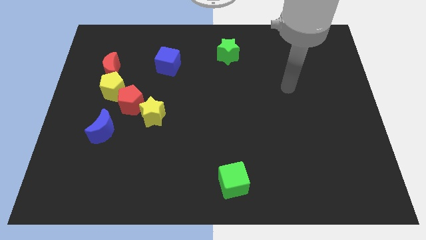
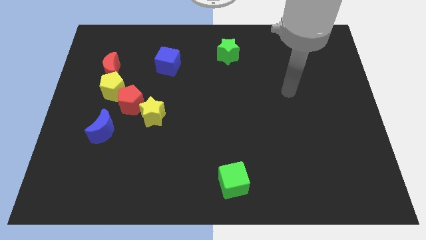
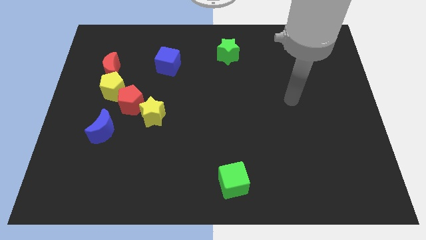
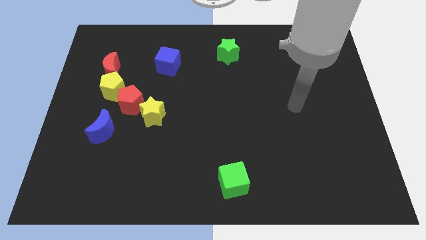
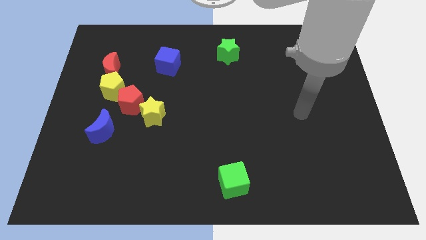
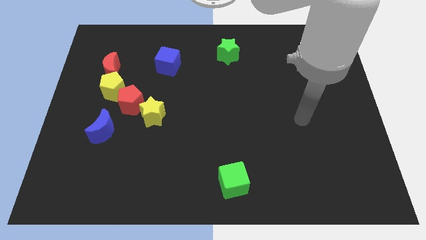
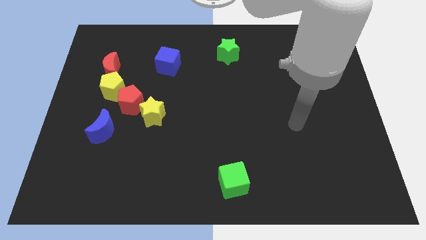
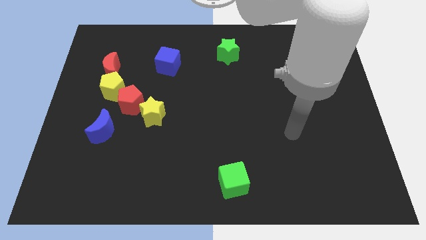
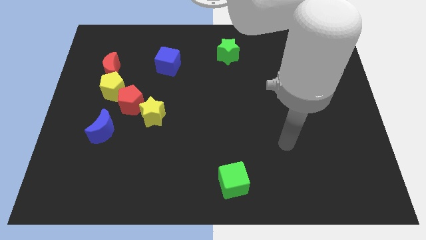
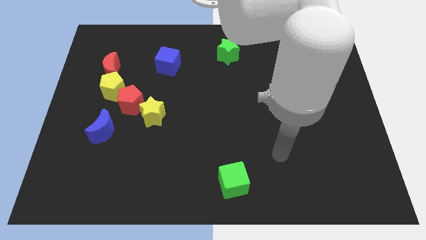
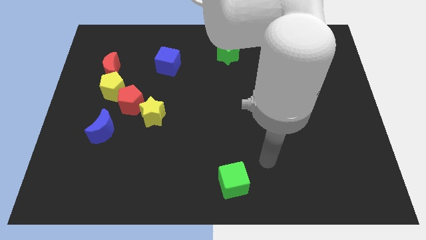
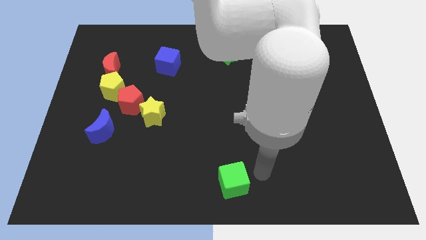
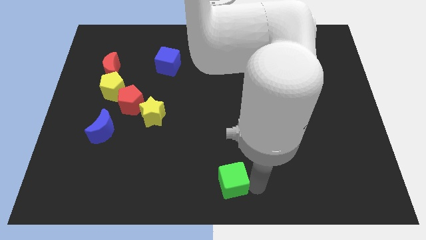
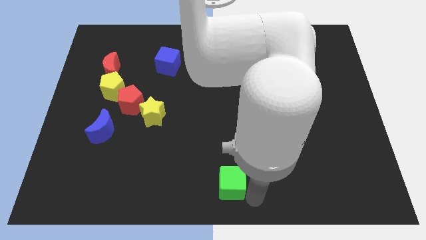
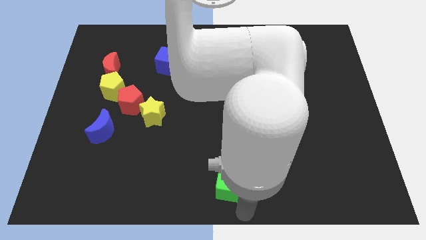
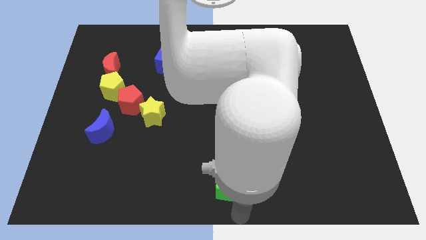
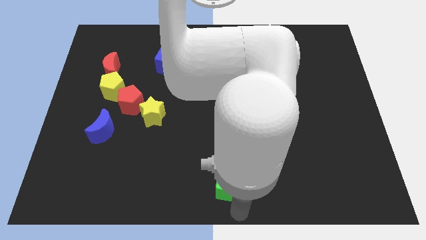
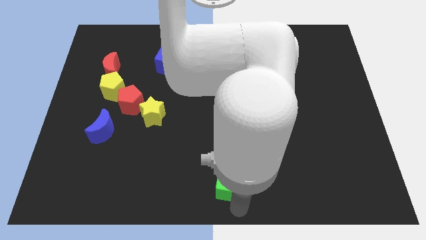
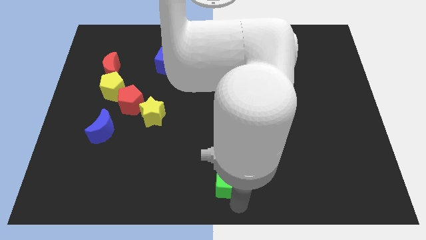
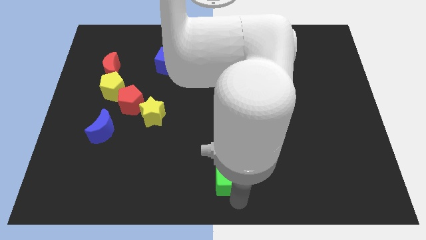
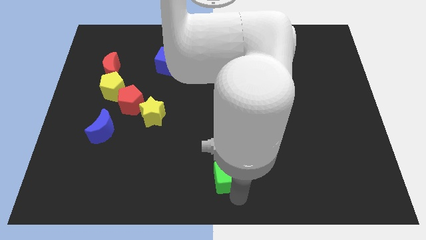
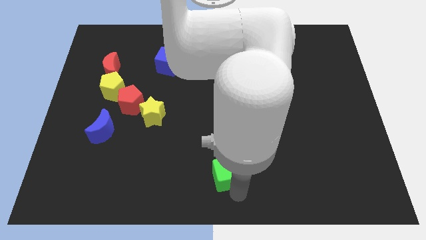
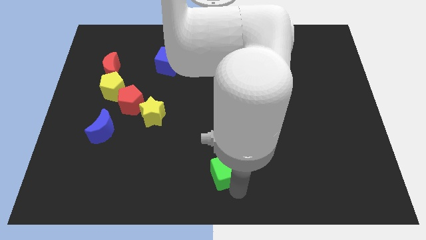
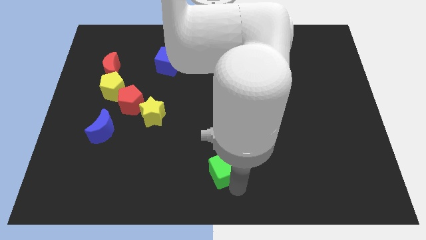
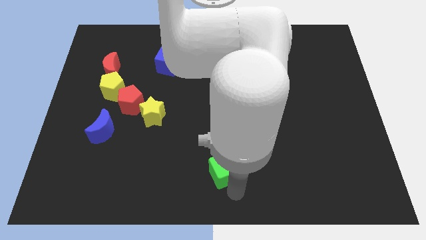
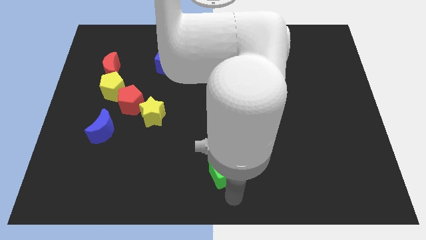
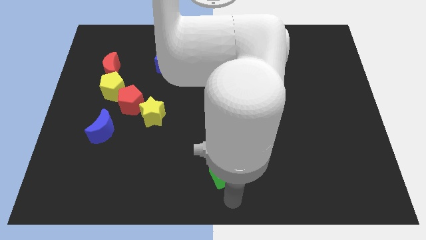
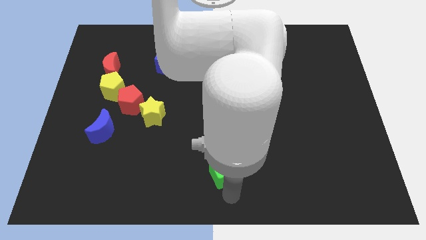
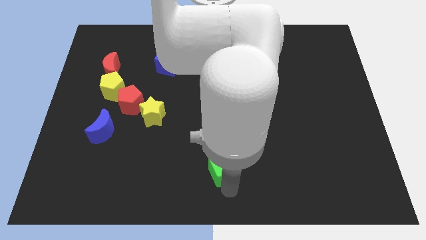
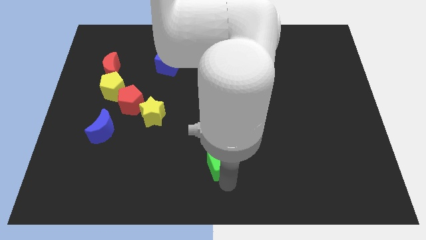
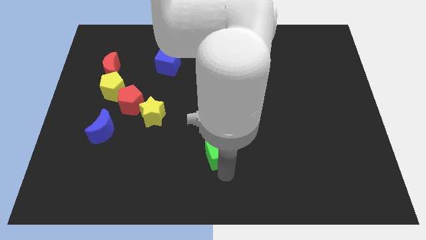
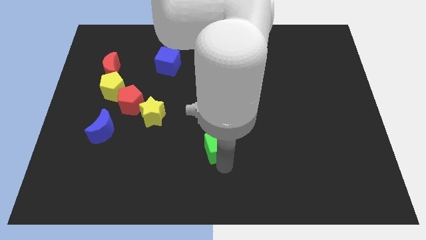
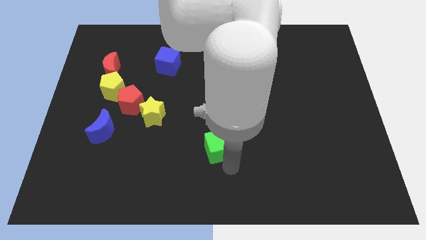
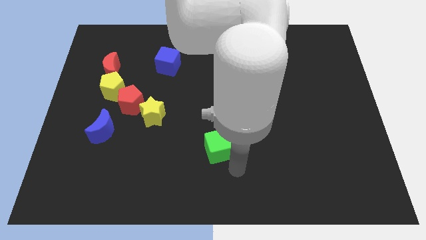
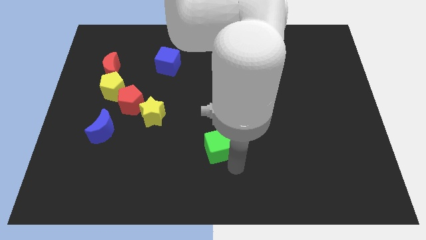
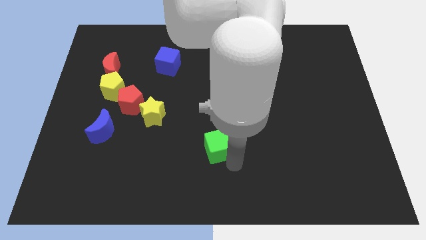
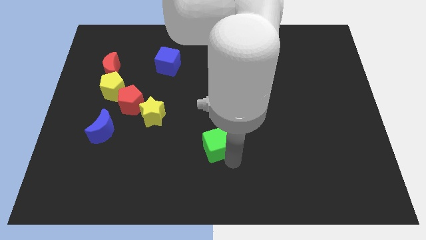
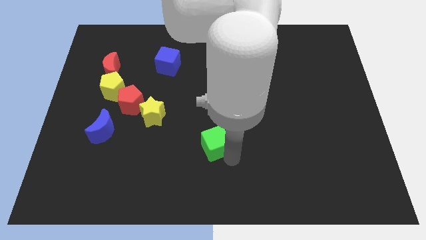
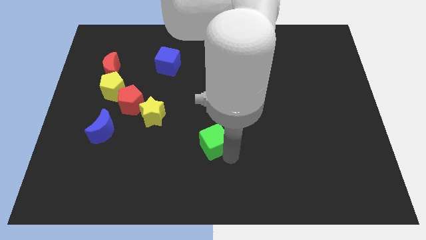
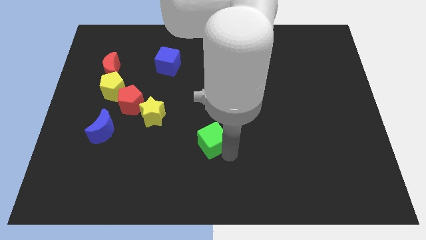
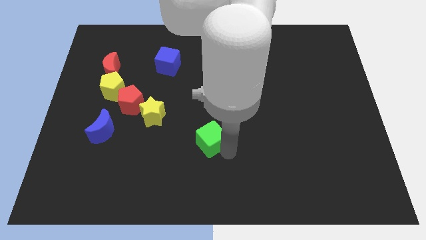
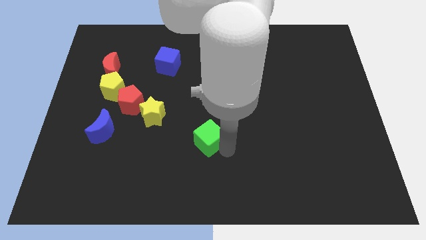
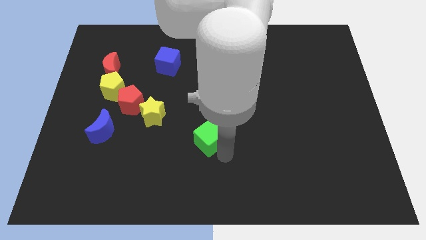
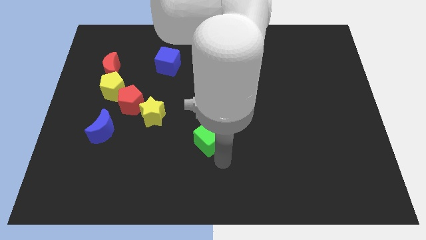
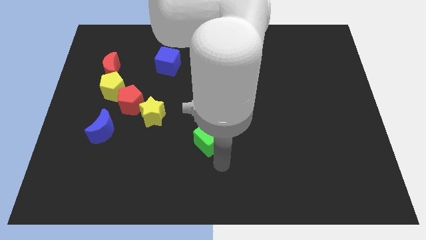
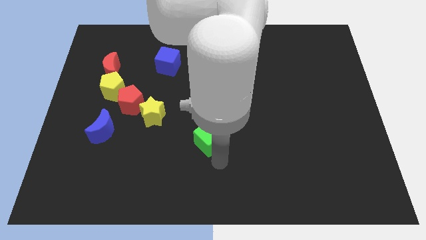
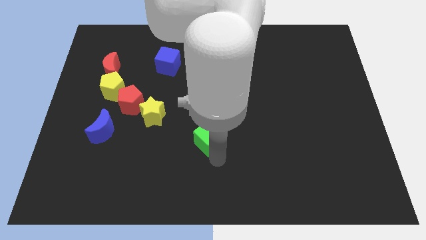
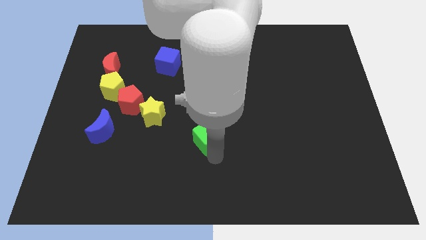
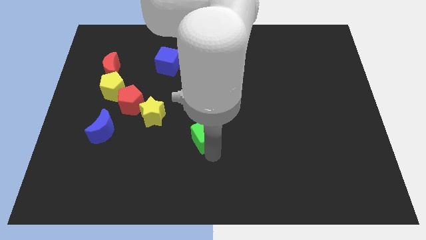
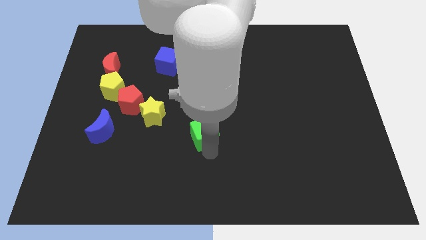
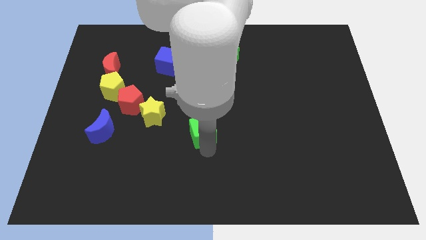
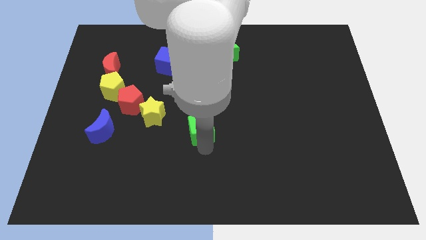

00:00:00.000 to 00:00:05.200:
slide the green cube right of the yellow star

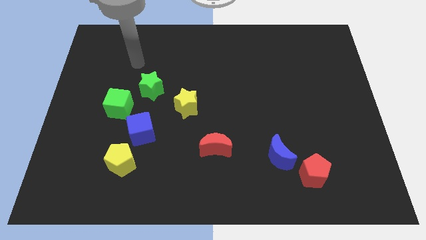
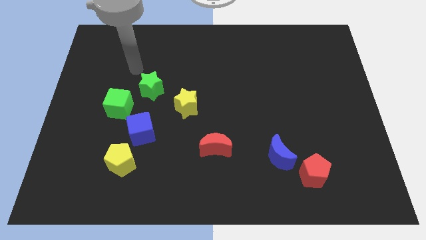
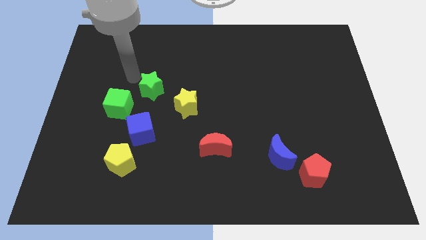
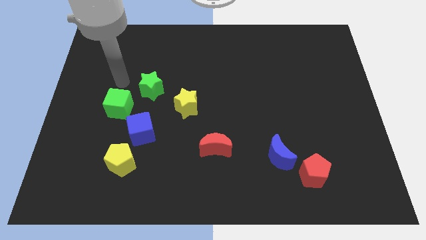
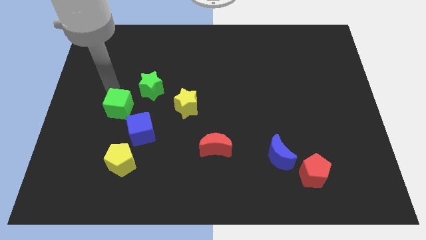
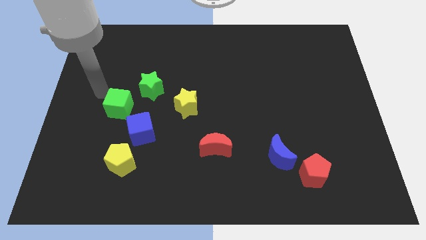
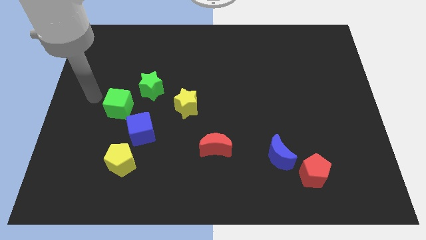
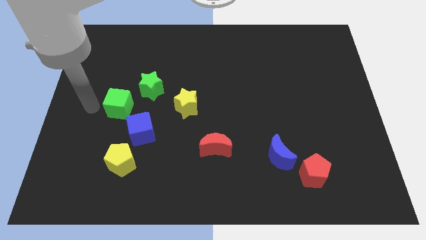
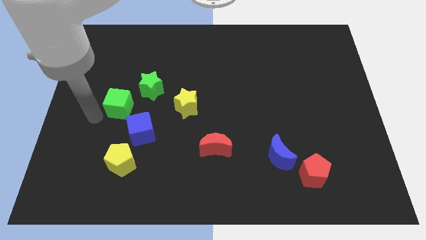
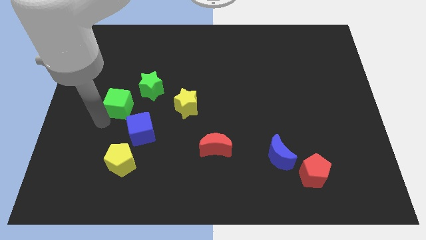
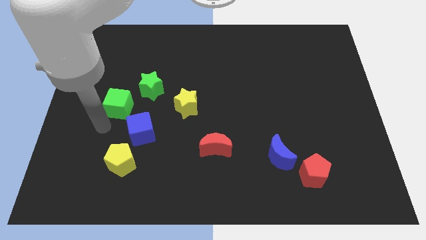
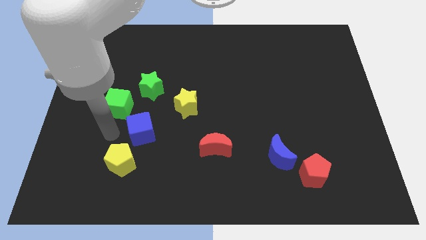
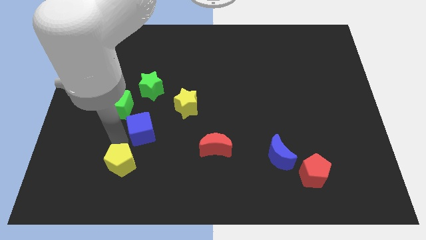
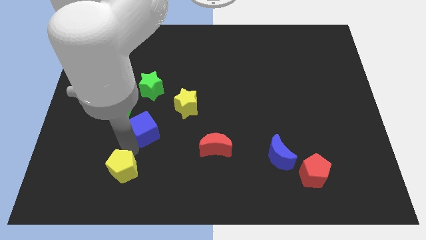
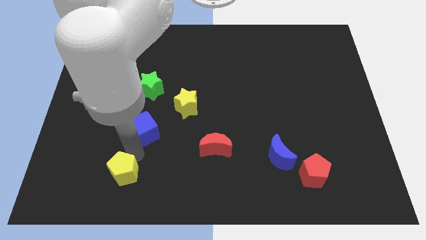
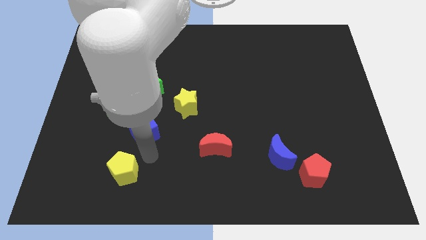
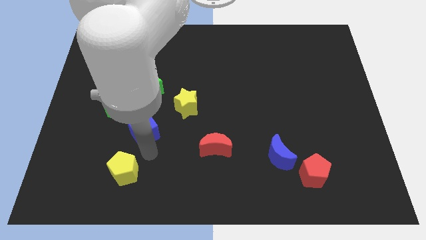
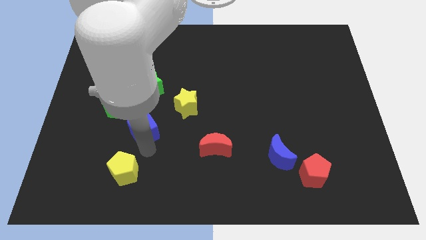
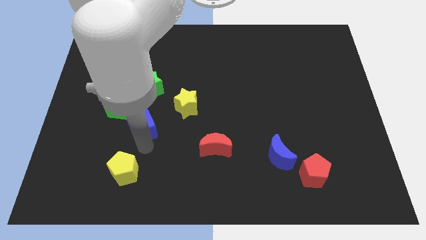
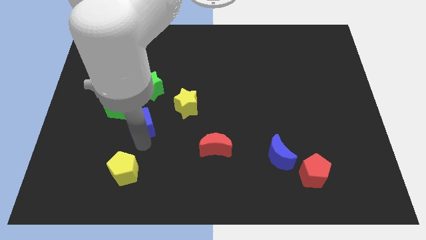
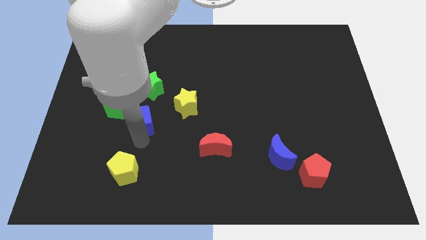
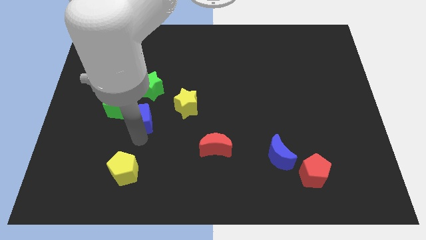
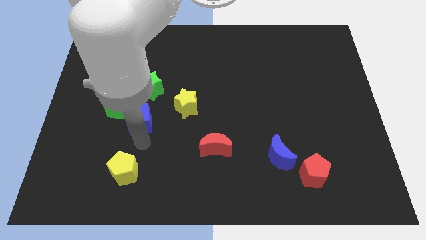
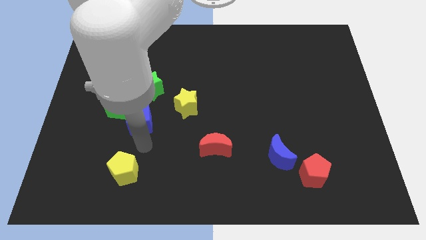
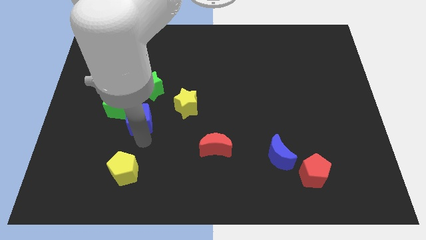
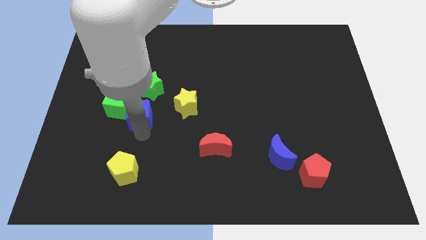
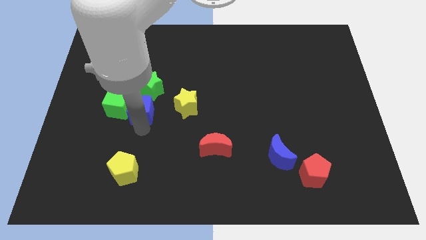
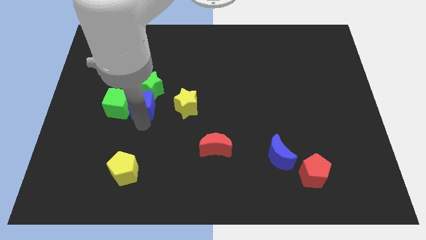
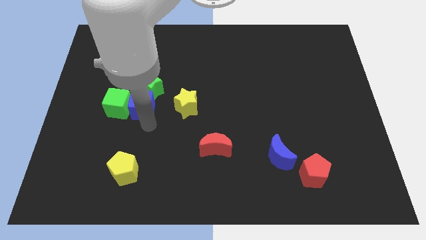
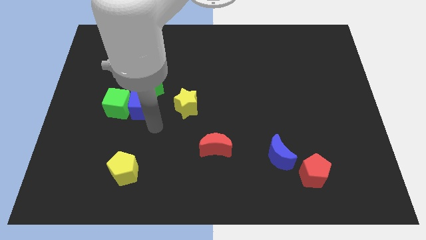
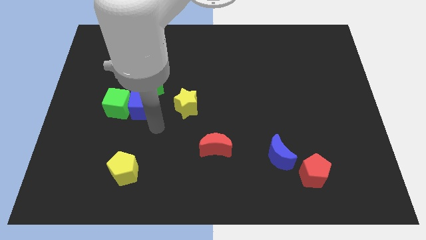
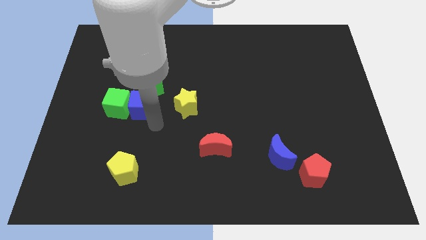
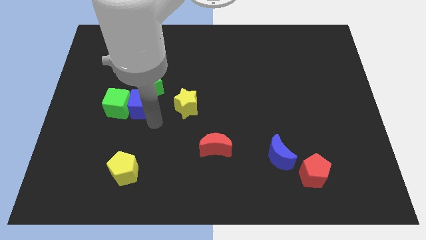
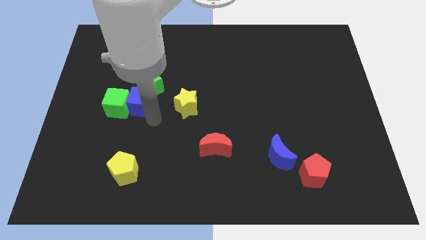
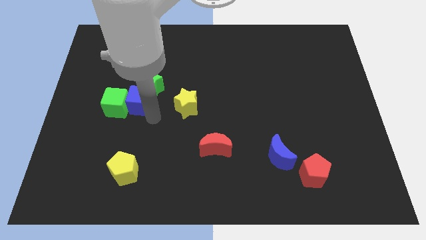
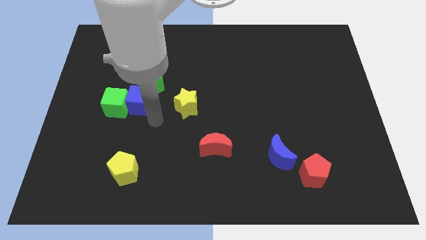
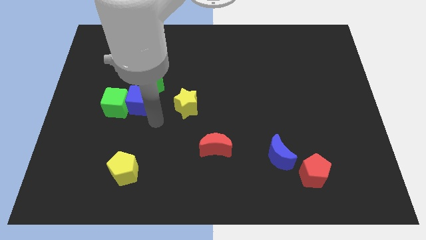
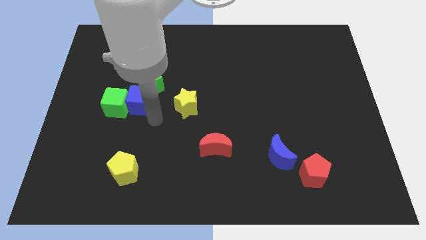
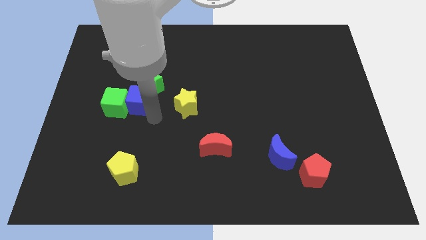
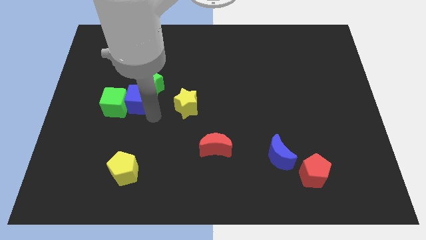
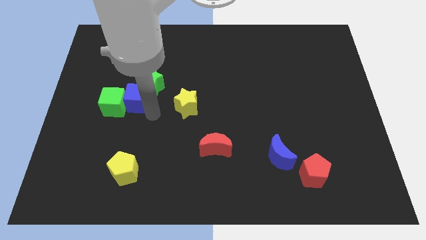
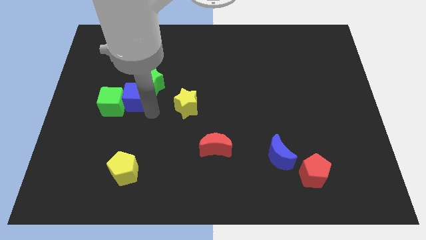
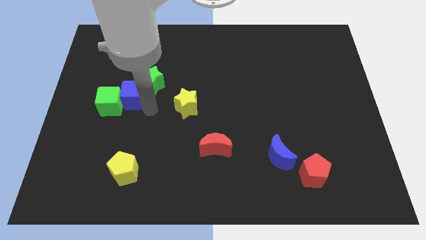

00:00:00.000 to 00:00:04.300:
slide the blue cube left of the green star
